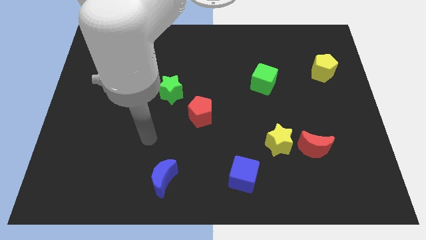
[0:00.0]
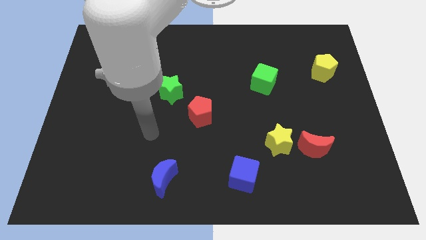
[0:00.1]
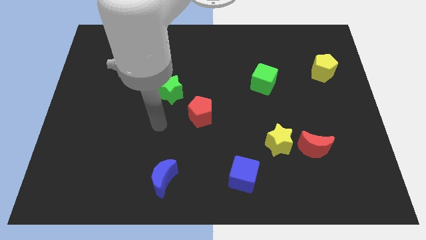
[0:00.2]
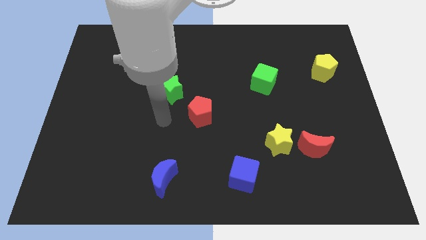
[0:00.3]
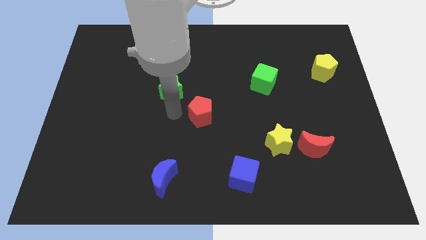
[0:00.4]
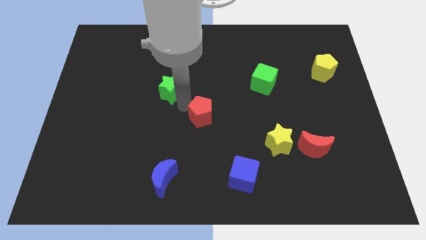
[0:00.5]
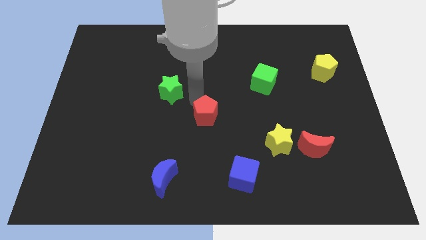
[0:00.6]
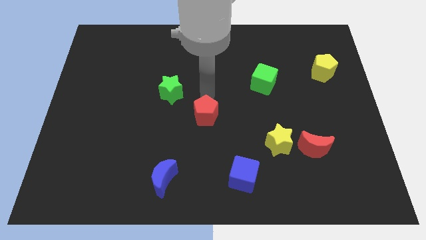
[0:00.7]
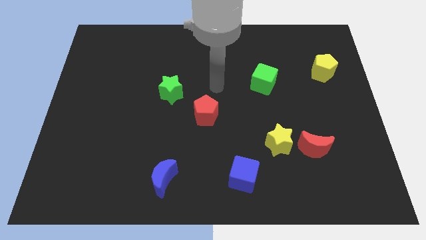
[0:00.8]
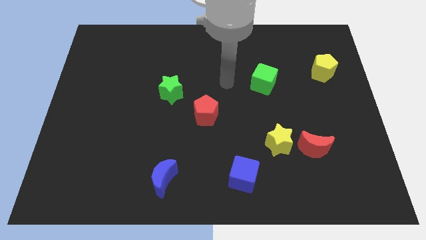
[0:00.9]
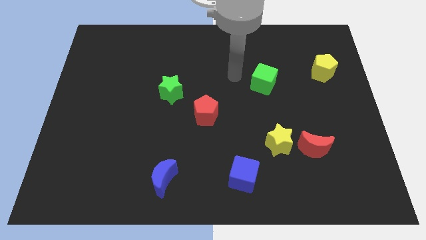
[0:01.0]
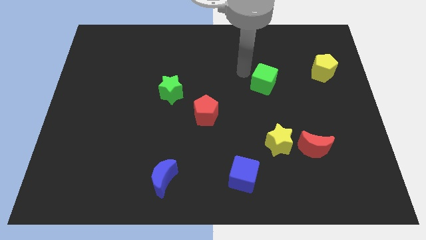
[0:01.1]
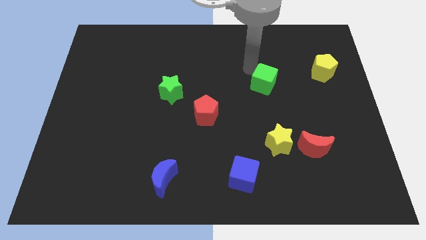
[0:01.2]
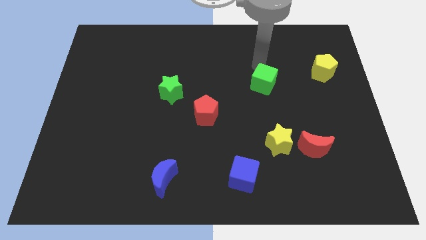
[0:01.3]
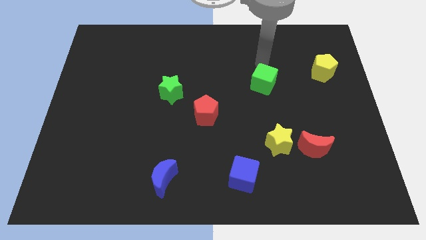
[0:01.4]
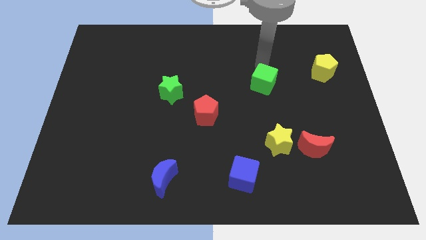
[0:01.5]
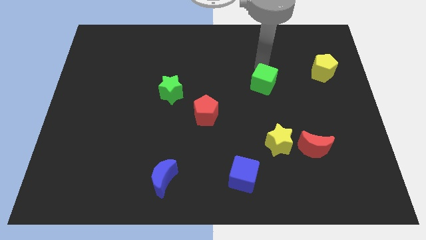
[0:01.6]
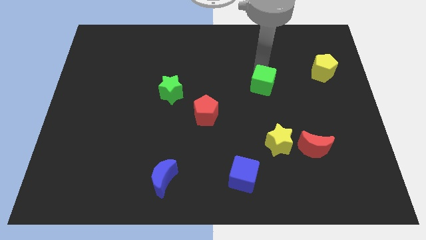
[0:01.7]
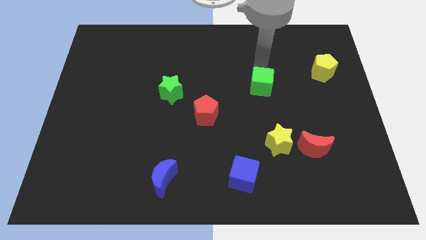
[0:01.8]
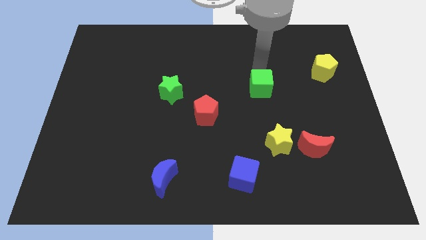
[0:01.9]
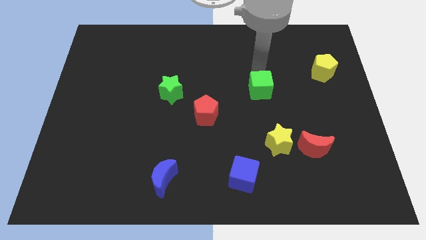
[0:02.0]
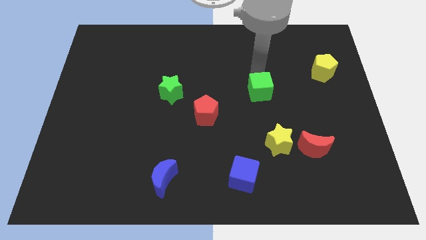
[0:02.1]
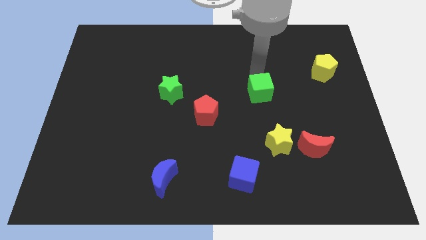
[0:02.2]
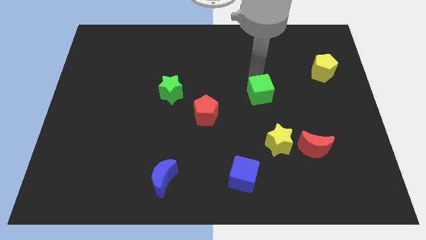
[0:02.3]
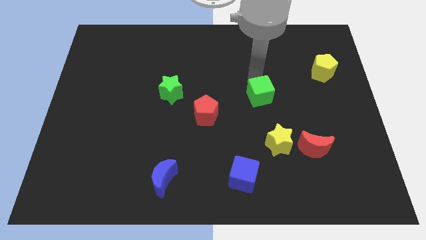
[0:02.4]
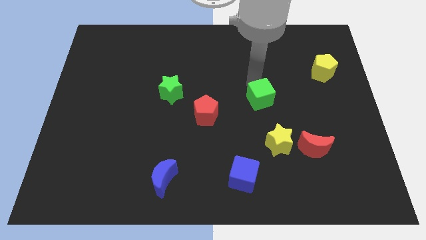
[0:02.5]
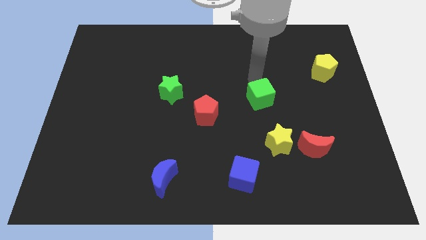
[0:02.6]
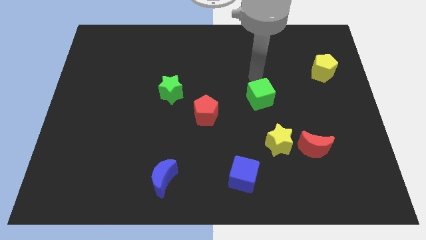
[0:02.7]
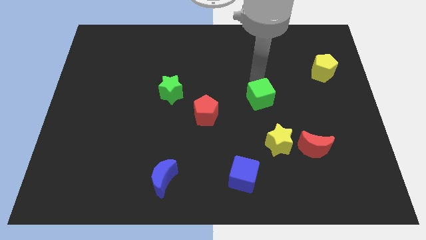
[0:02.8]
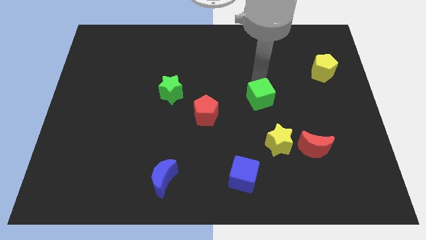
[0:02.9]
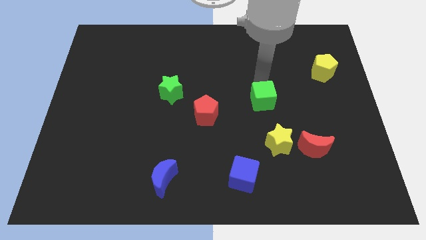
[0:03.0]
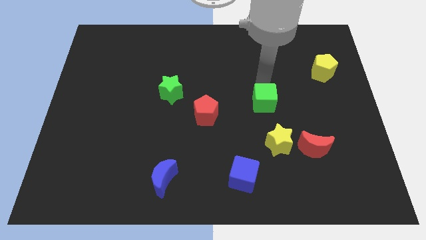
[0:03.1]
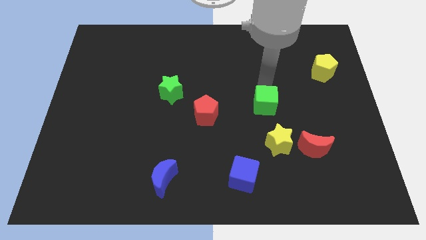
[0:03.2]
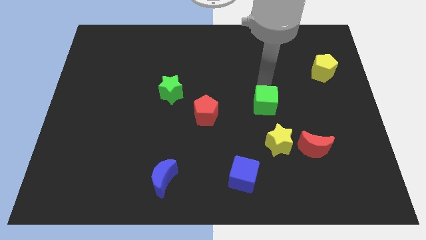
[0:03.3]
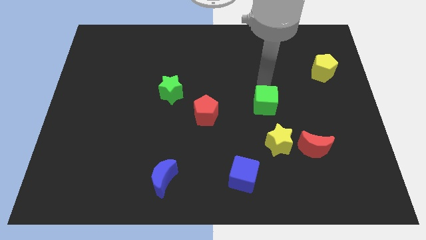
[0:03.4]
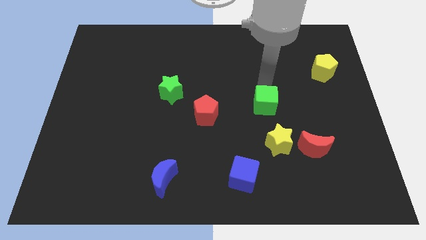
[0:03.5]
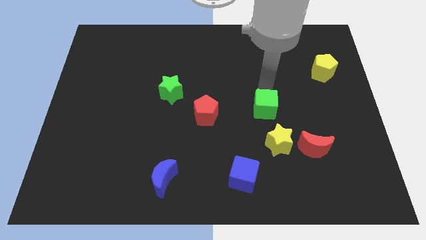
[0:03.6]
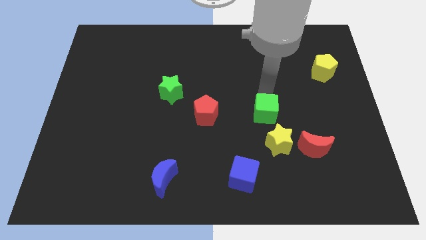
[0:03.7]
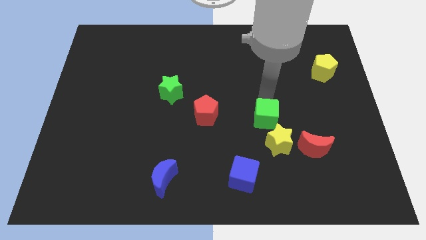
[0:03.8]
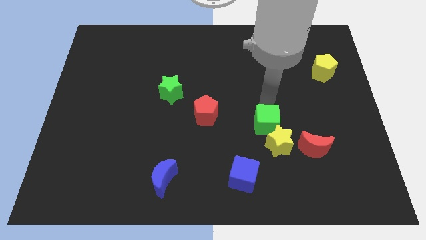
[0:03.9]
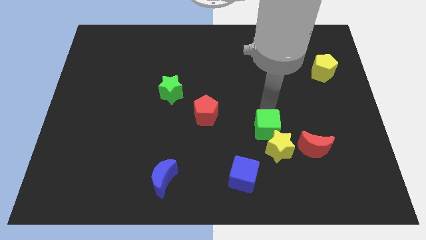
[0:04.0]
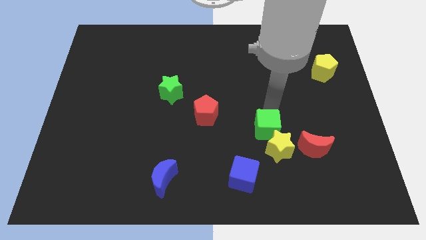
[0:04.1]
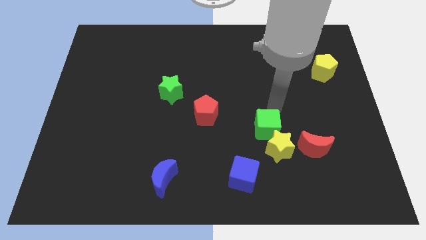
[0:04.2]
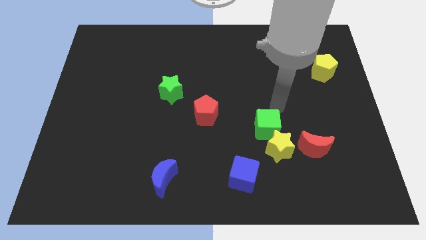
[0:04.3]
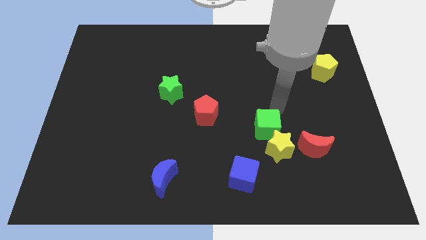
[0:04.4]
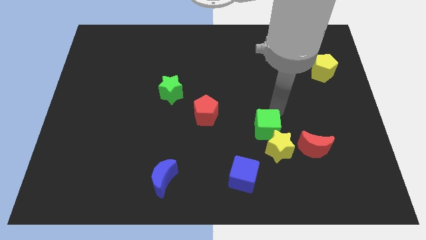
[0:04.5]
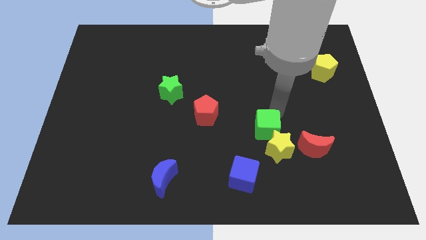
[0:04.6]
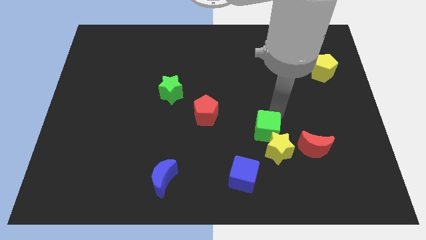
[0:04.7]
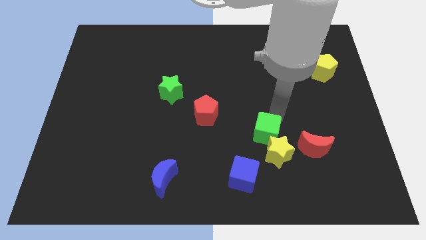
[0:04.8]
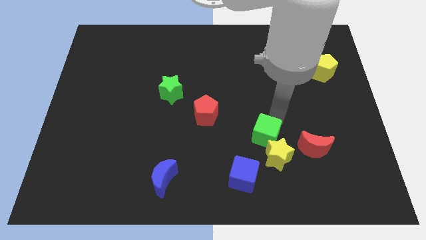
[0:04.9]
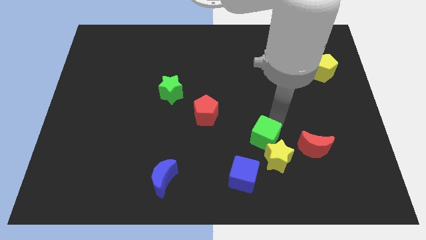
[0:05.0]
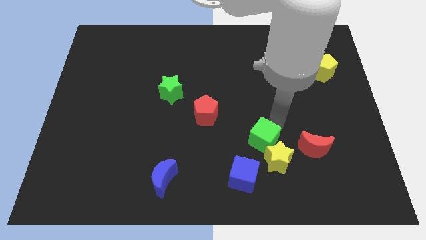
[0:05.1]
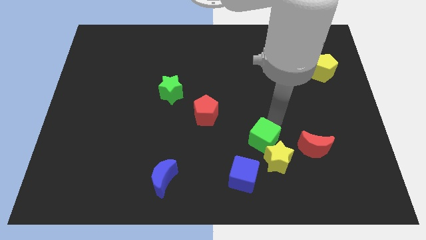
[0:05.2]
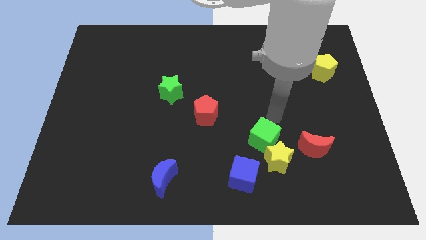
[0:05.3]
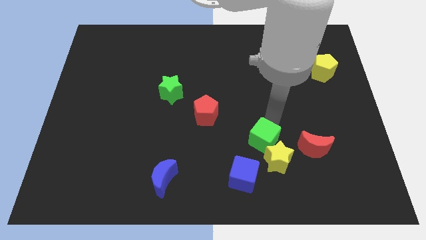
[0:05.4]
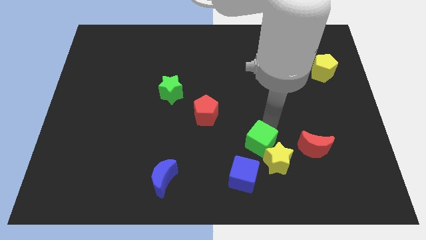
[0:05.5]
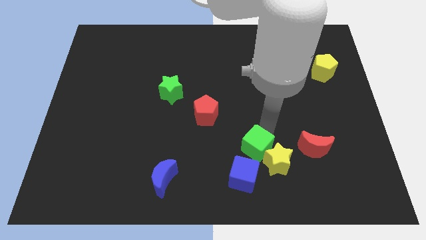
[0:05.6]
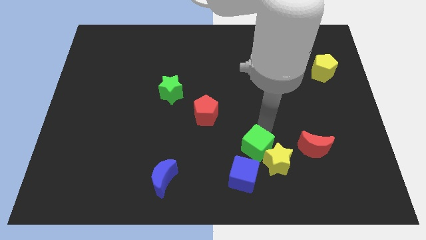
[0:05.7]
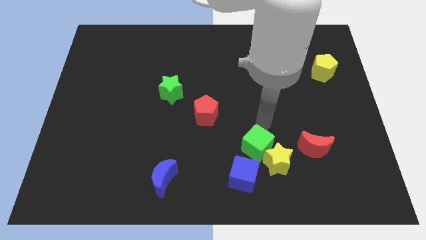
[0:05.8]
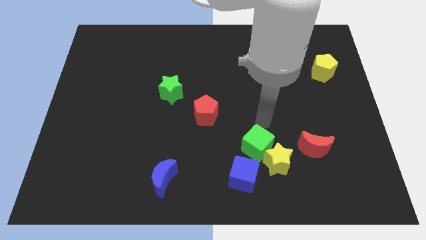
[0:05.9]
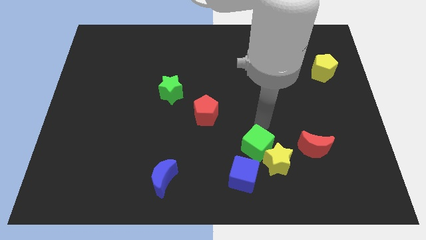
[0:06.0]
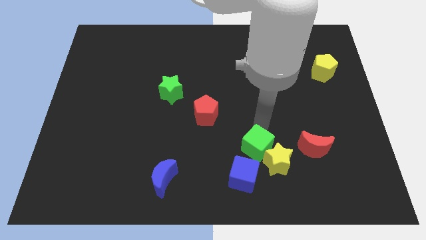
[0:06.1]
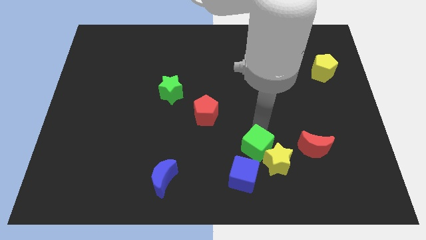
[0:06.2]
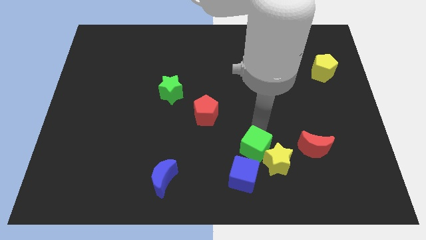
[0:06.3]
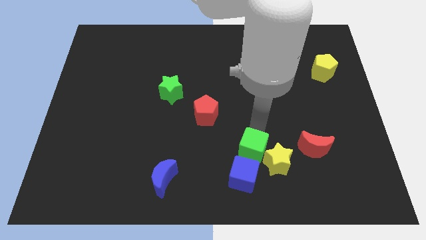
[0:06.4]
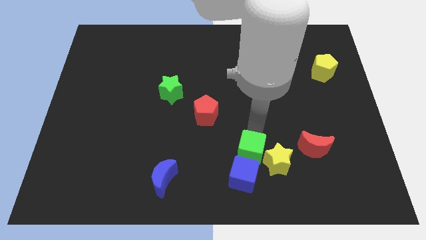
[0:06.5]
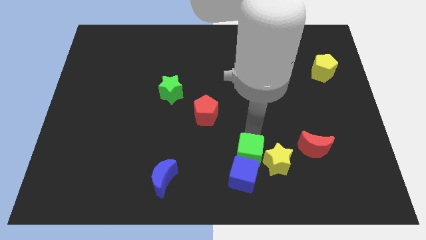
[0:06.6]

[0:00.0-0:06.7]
slide the green cube next to the blue cube
